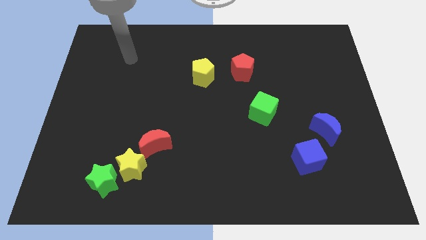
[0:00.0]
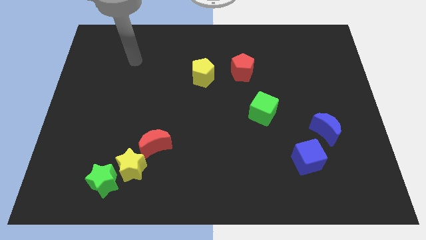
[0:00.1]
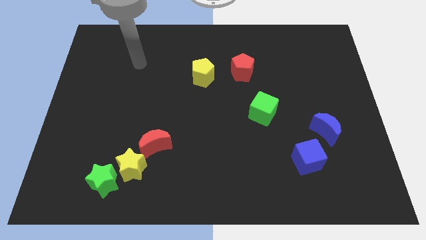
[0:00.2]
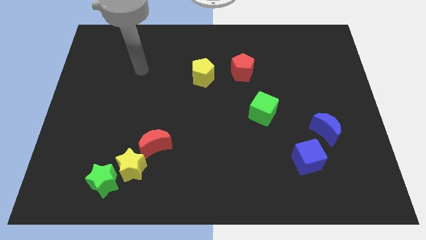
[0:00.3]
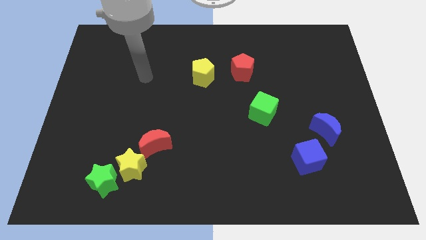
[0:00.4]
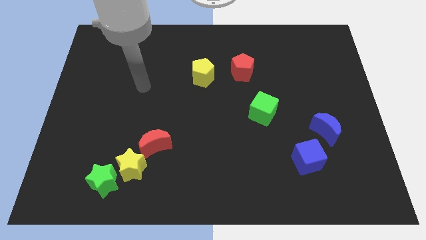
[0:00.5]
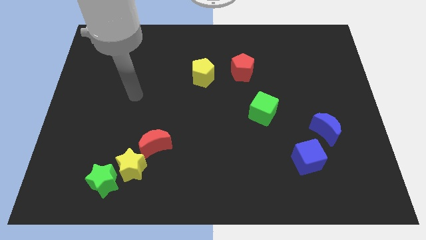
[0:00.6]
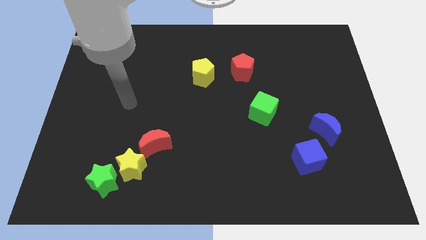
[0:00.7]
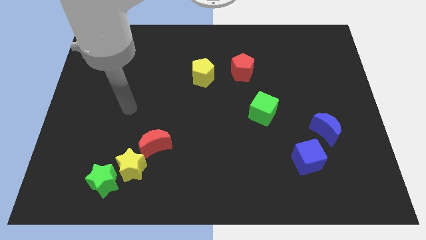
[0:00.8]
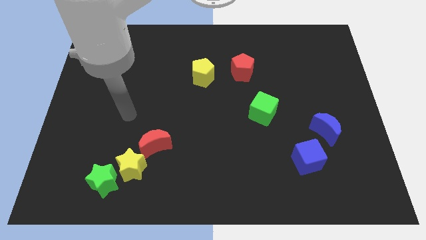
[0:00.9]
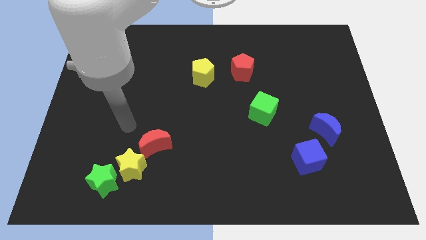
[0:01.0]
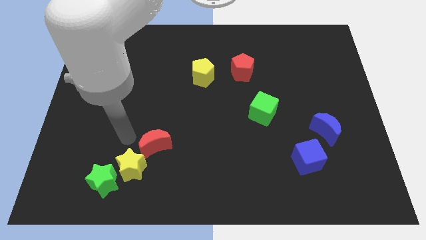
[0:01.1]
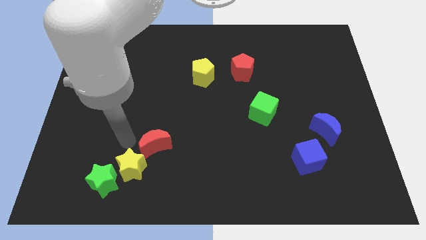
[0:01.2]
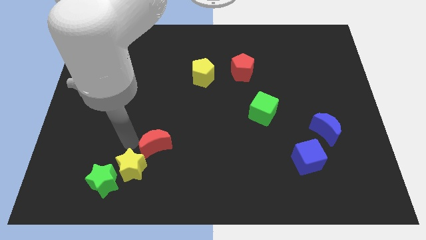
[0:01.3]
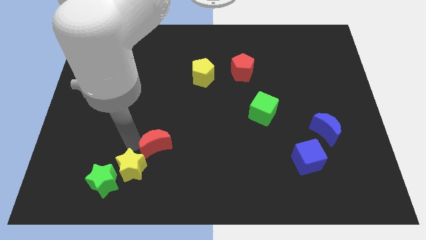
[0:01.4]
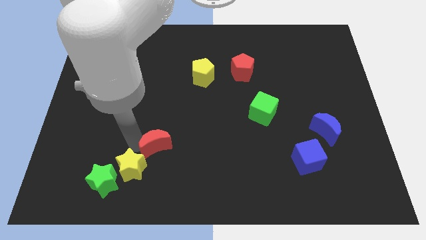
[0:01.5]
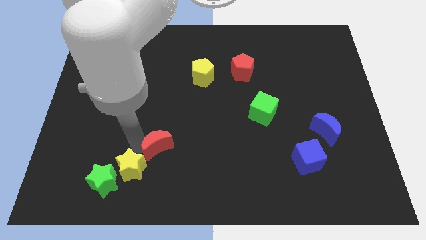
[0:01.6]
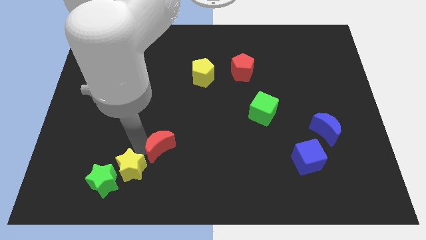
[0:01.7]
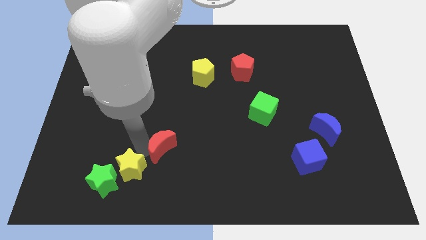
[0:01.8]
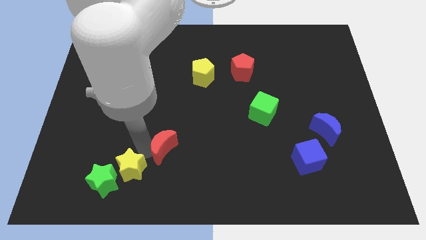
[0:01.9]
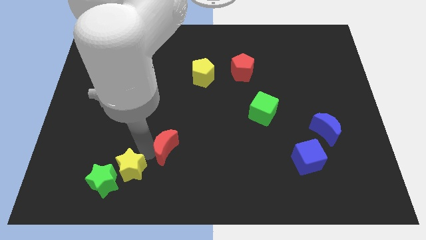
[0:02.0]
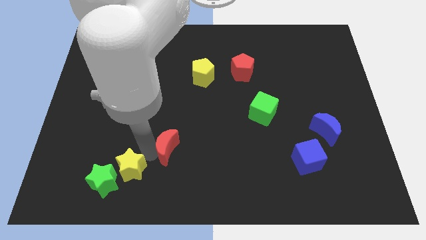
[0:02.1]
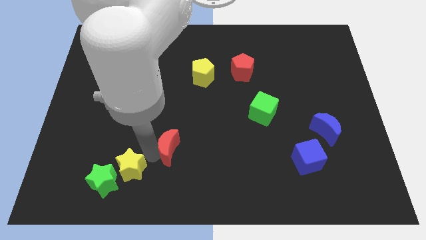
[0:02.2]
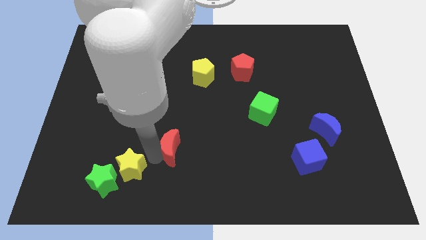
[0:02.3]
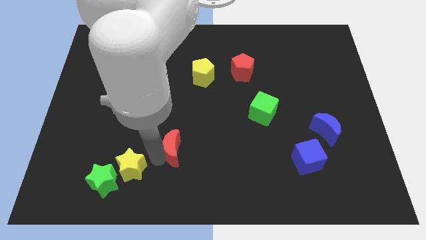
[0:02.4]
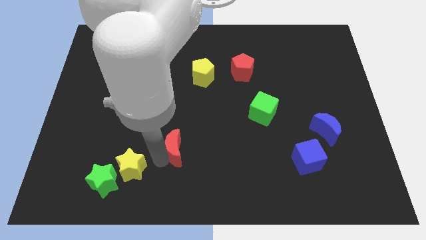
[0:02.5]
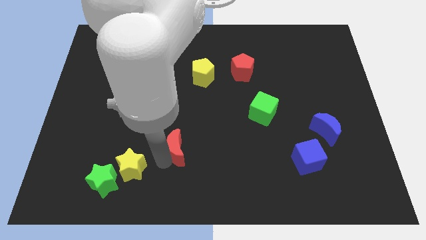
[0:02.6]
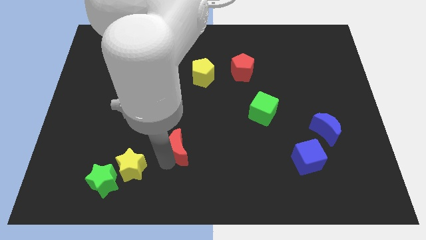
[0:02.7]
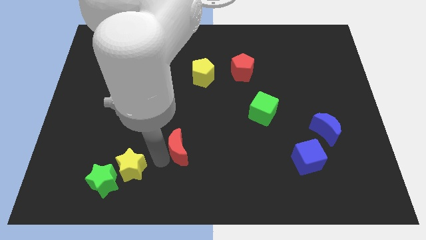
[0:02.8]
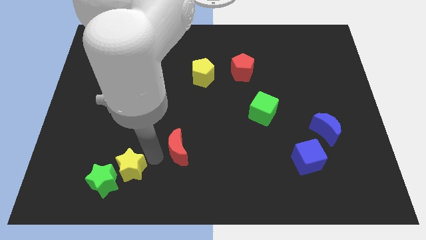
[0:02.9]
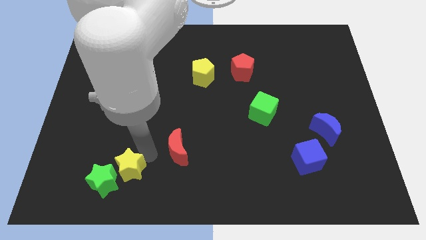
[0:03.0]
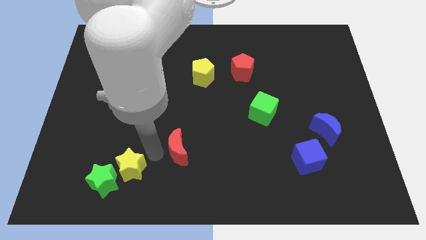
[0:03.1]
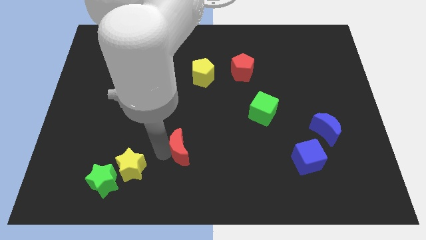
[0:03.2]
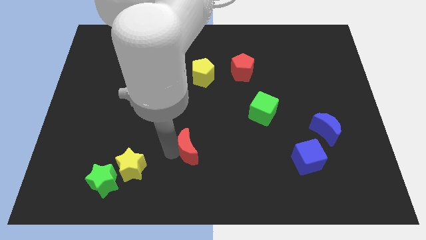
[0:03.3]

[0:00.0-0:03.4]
push the red moon to the right a little

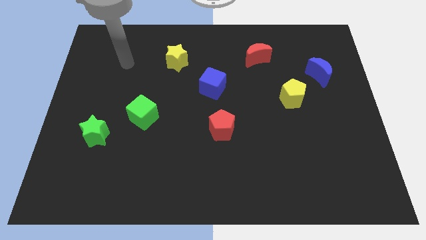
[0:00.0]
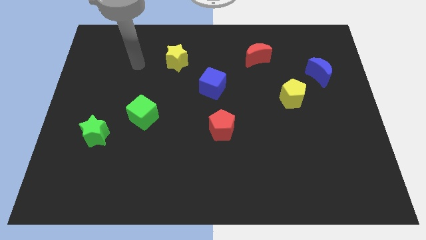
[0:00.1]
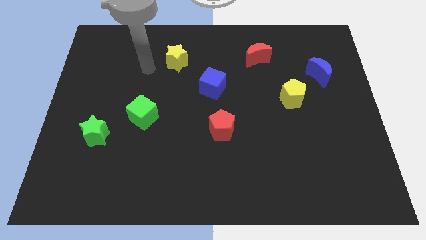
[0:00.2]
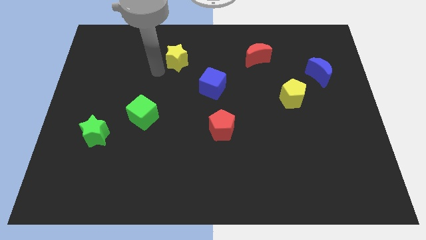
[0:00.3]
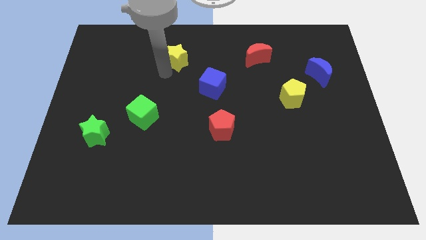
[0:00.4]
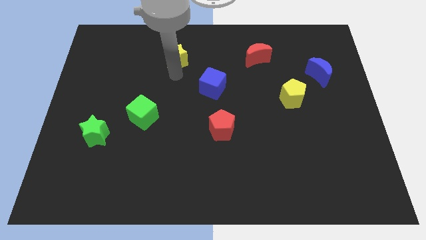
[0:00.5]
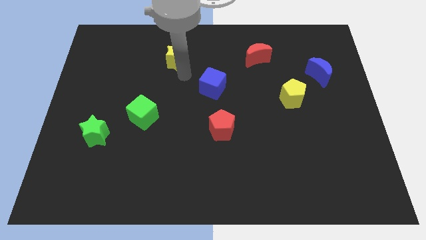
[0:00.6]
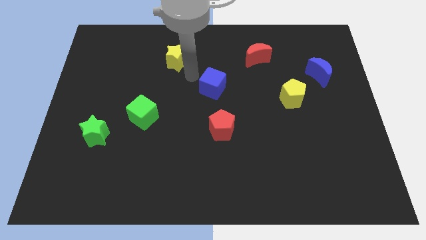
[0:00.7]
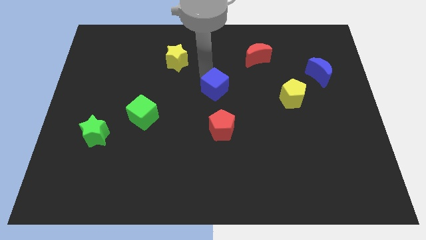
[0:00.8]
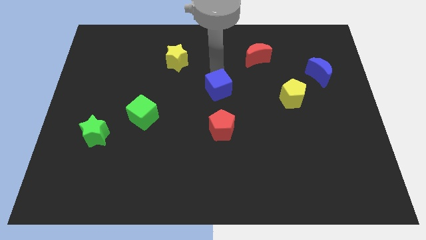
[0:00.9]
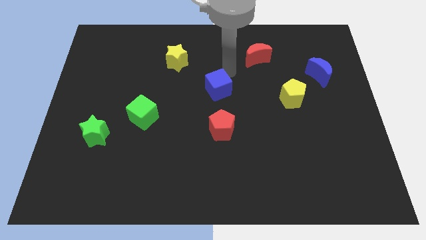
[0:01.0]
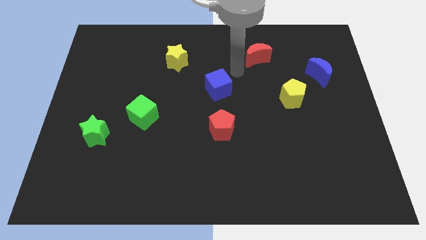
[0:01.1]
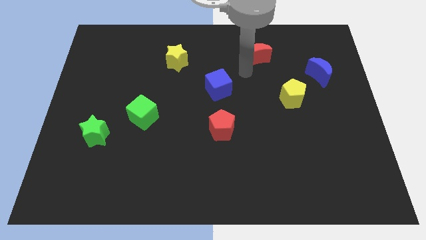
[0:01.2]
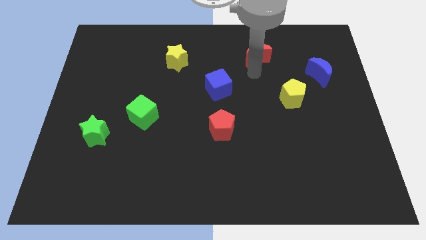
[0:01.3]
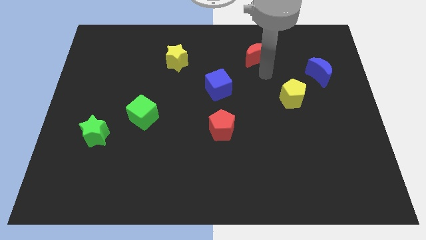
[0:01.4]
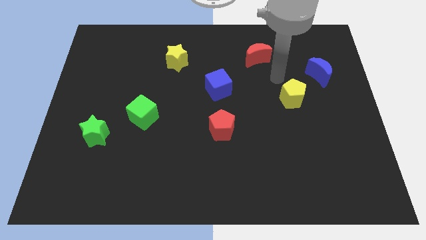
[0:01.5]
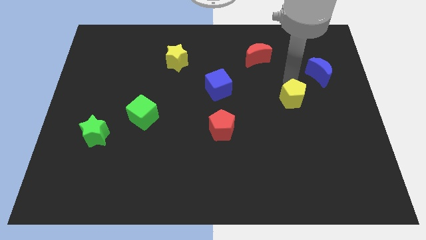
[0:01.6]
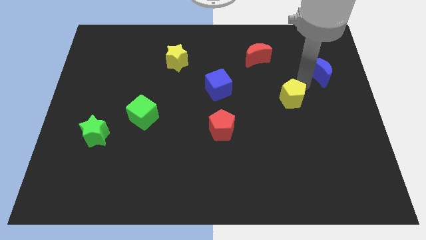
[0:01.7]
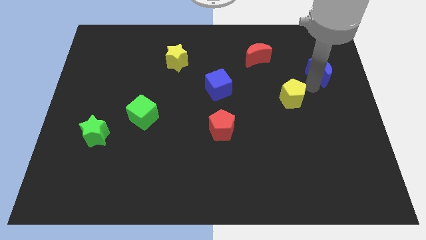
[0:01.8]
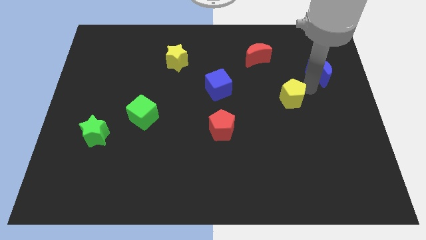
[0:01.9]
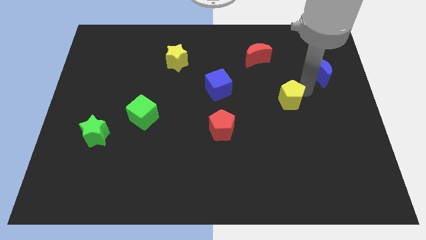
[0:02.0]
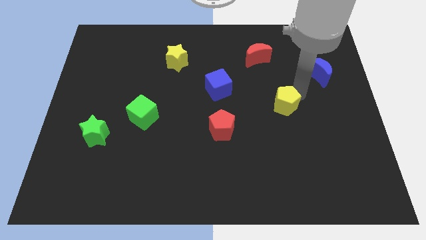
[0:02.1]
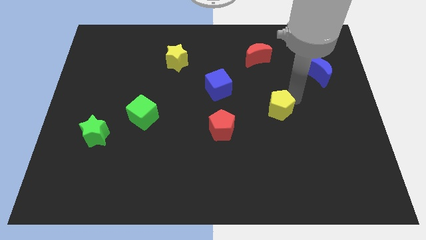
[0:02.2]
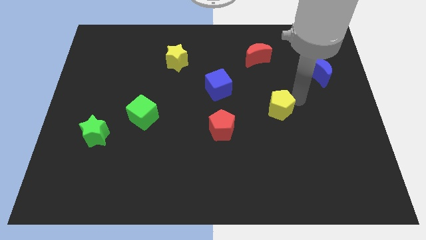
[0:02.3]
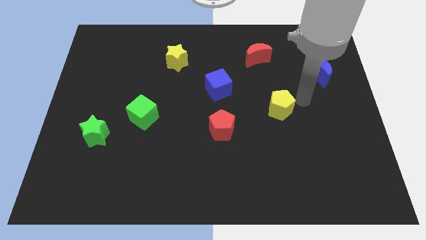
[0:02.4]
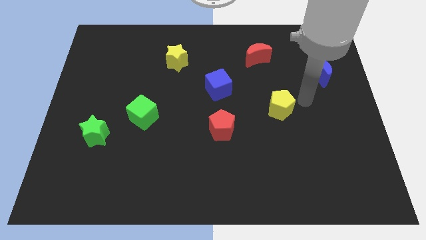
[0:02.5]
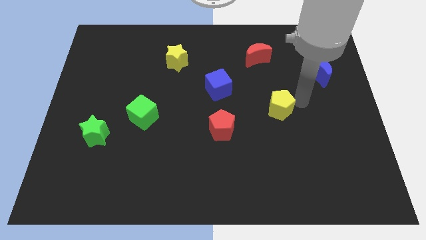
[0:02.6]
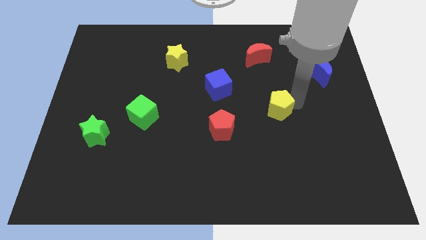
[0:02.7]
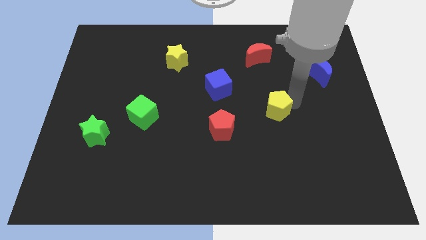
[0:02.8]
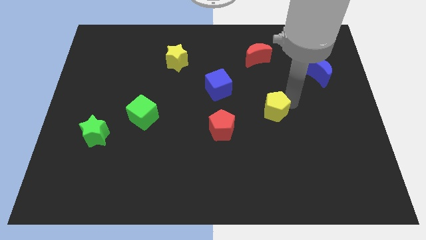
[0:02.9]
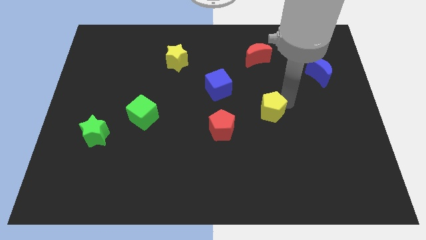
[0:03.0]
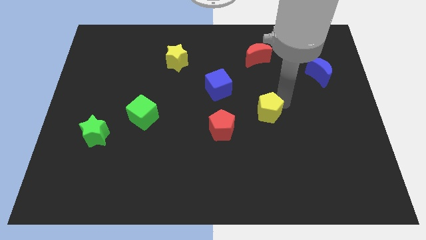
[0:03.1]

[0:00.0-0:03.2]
slide the yellow pentagon a little bit down and left

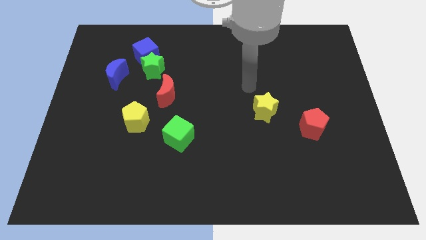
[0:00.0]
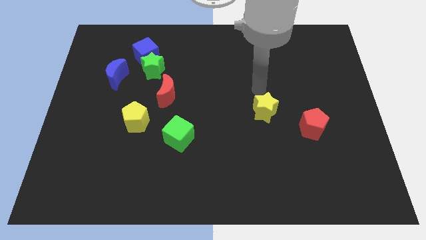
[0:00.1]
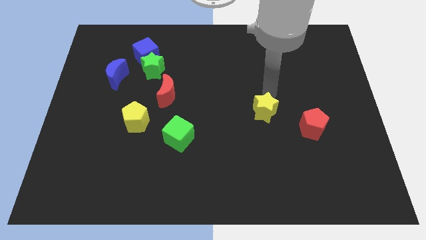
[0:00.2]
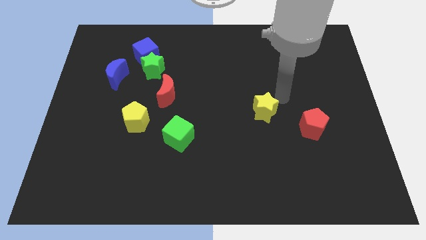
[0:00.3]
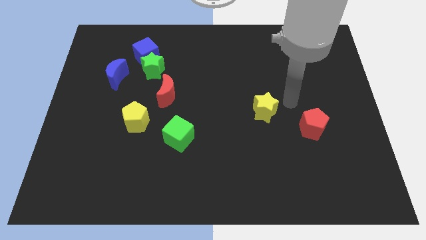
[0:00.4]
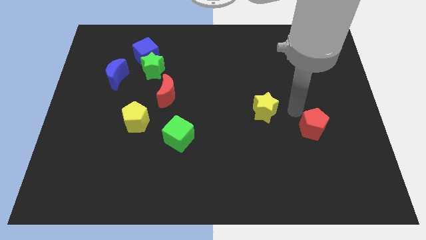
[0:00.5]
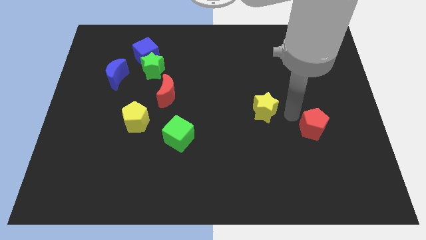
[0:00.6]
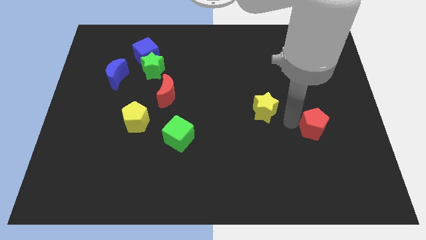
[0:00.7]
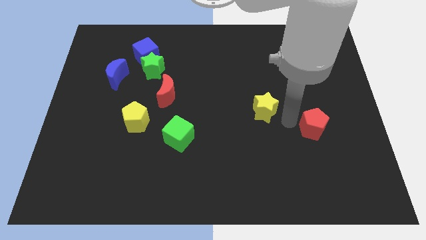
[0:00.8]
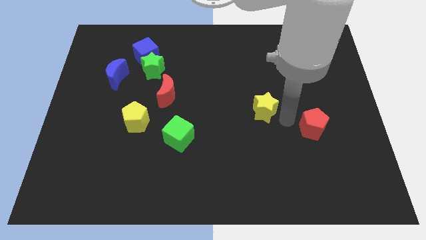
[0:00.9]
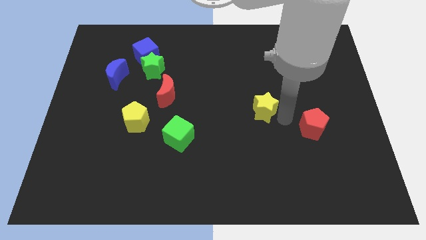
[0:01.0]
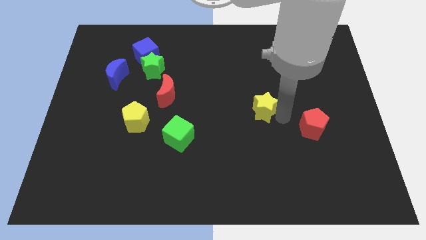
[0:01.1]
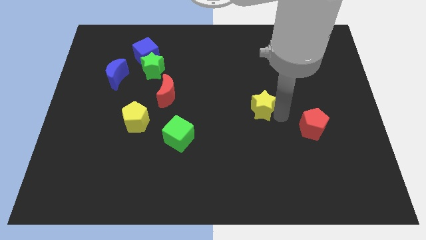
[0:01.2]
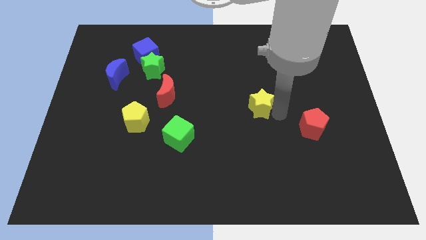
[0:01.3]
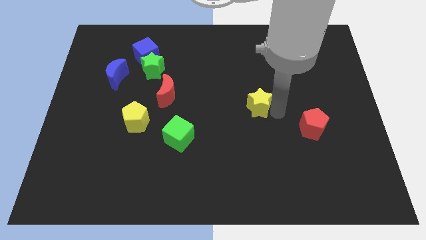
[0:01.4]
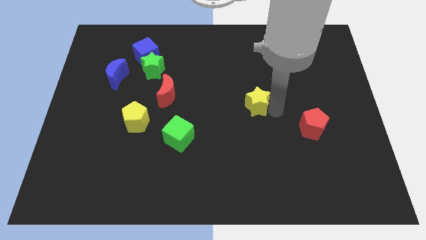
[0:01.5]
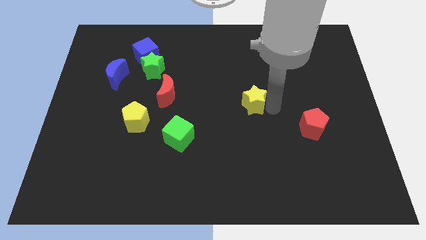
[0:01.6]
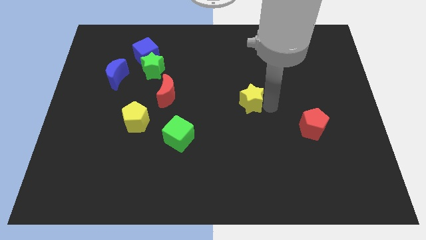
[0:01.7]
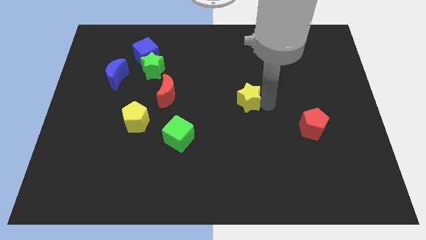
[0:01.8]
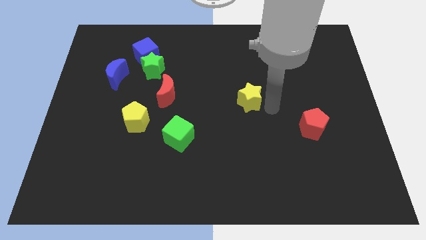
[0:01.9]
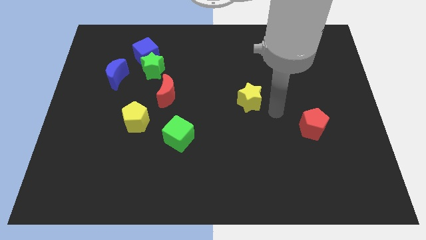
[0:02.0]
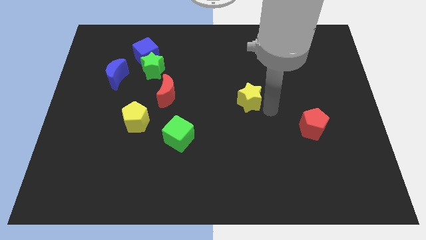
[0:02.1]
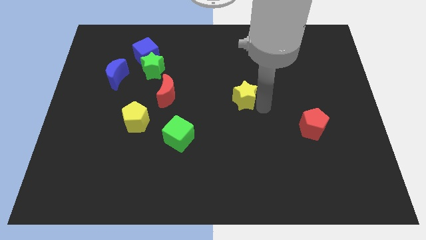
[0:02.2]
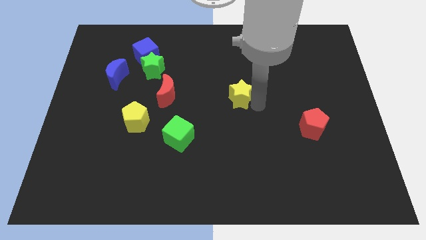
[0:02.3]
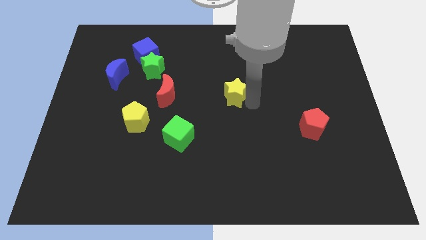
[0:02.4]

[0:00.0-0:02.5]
push the yellow star diagonally up and to the left slightly
